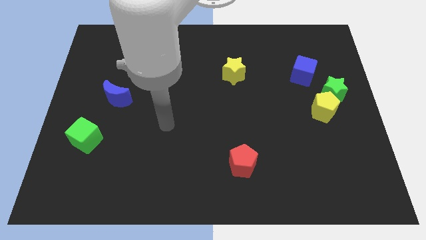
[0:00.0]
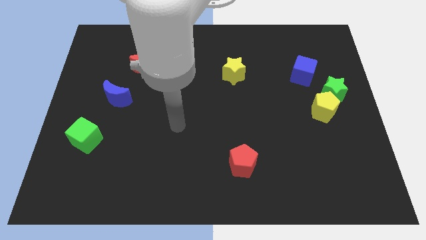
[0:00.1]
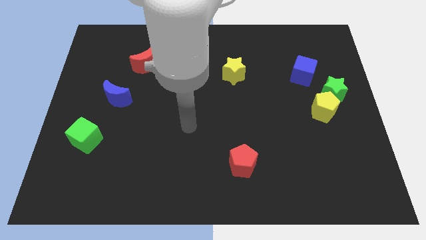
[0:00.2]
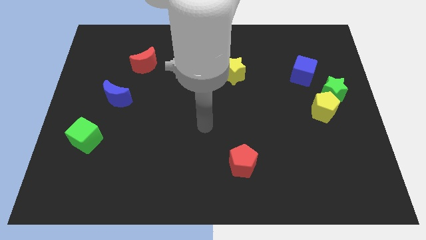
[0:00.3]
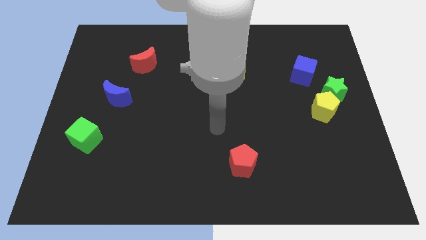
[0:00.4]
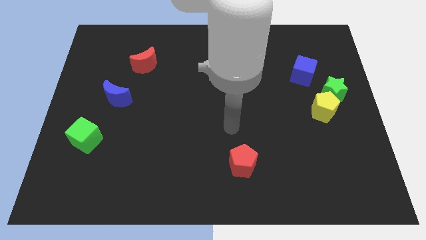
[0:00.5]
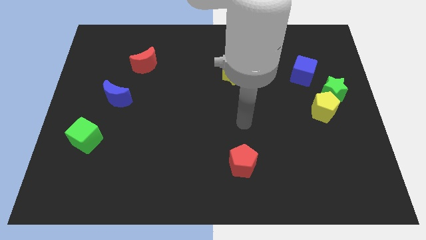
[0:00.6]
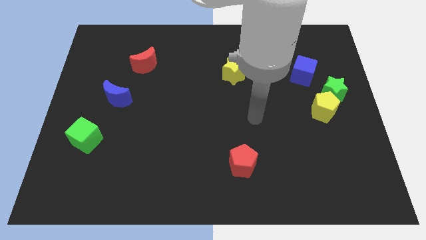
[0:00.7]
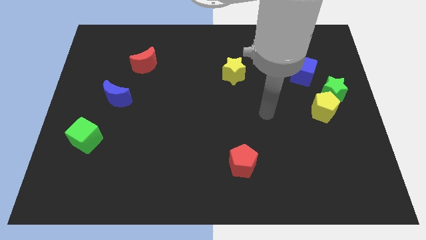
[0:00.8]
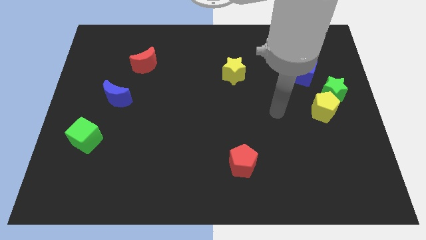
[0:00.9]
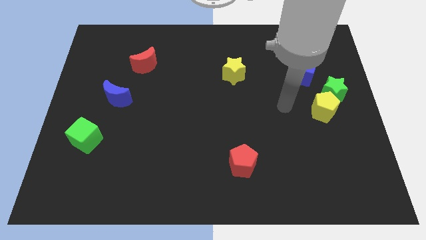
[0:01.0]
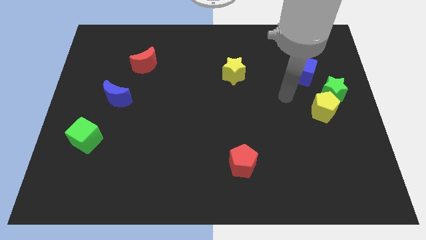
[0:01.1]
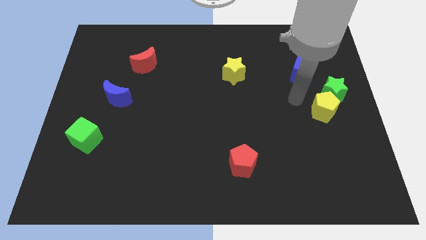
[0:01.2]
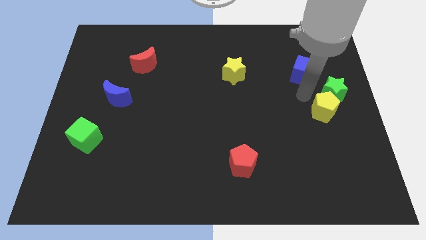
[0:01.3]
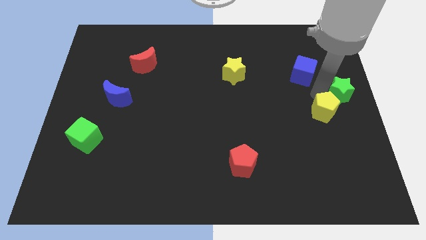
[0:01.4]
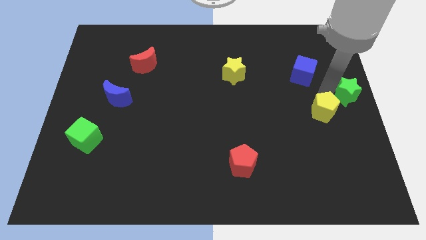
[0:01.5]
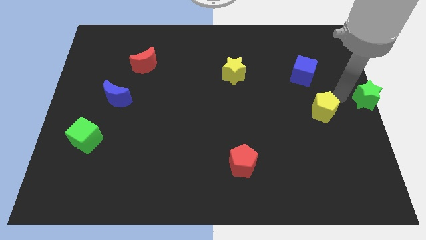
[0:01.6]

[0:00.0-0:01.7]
pull the yellow pentagon apart from the green star

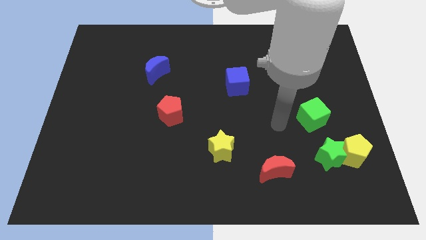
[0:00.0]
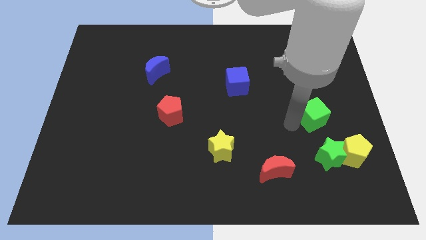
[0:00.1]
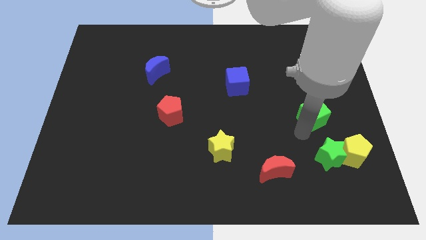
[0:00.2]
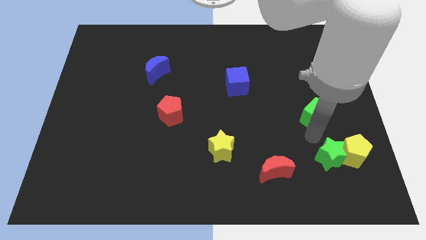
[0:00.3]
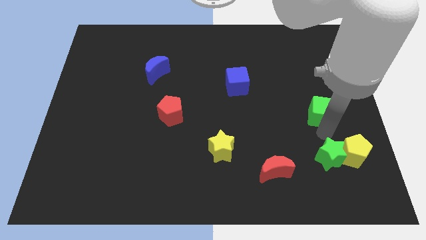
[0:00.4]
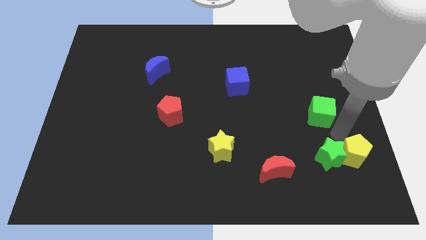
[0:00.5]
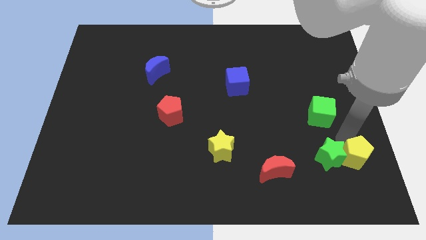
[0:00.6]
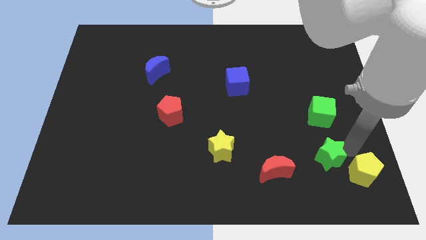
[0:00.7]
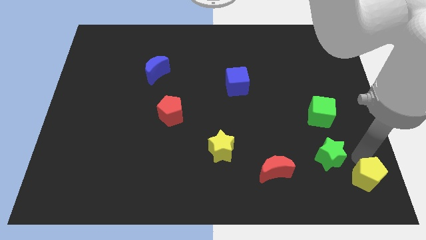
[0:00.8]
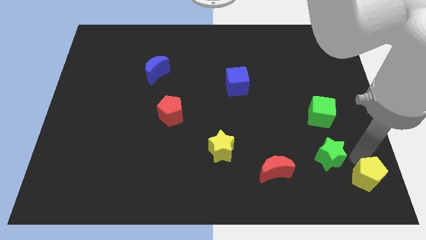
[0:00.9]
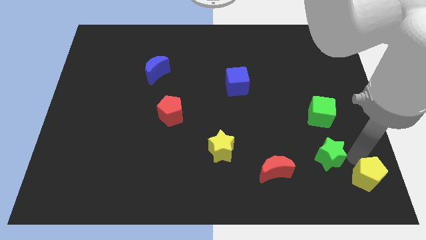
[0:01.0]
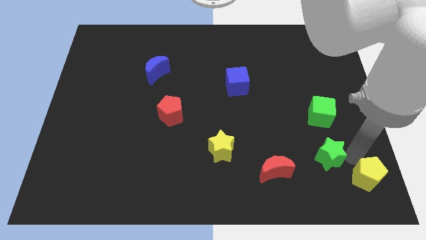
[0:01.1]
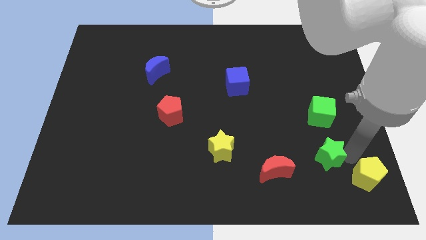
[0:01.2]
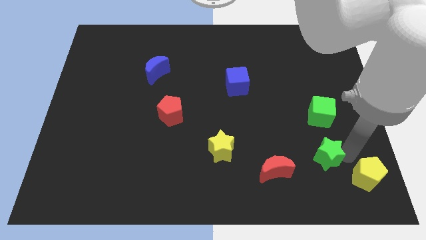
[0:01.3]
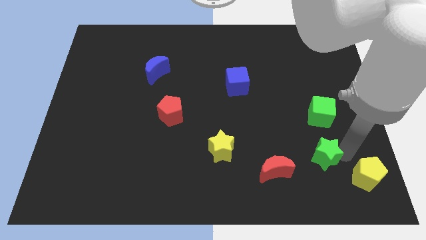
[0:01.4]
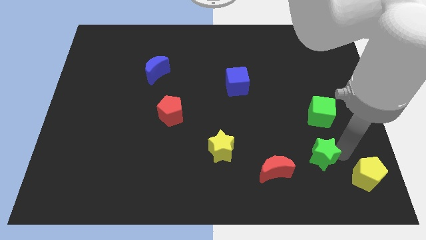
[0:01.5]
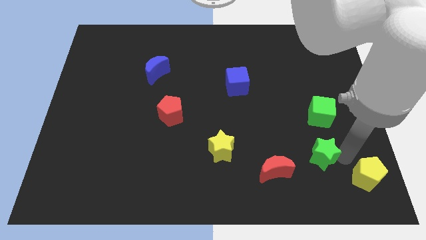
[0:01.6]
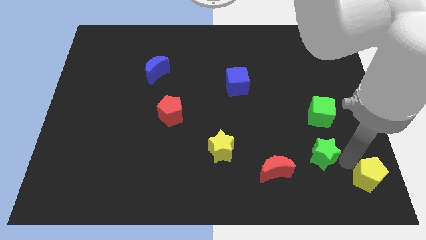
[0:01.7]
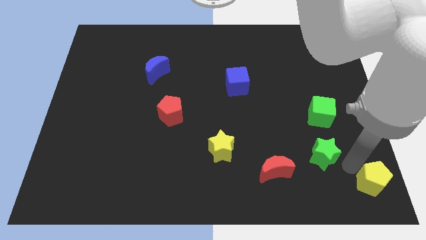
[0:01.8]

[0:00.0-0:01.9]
pull the green star apart from the yellow pentagon

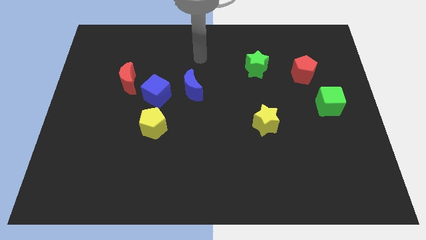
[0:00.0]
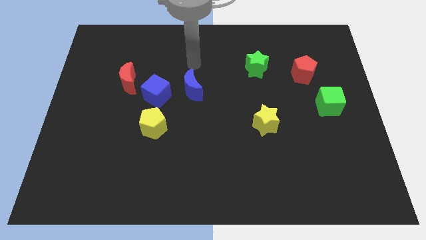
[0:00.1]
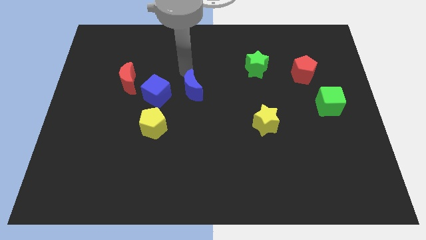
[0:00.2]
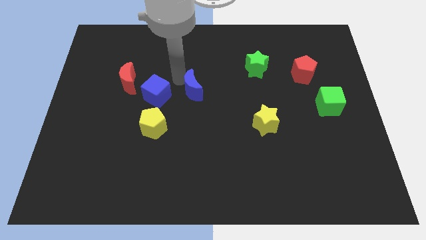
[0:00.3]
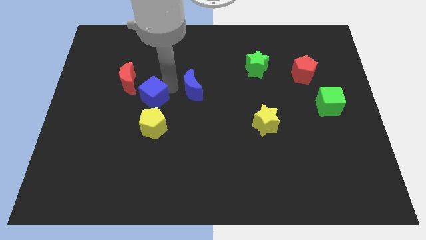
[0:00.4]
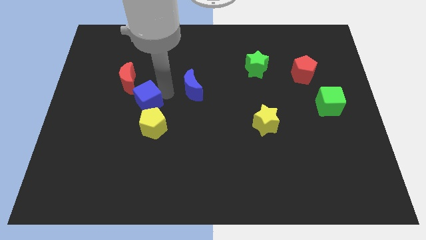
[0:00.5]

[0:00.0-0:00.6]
move the blue moon away from the blue cube

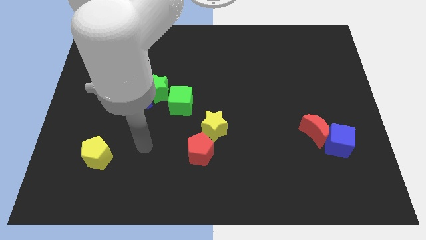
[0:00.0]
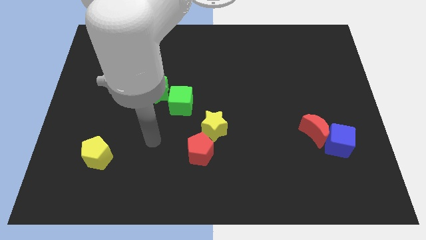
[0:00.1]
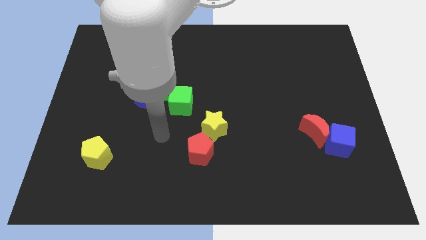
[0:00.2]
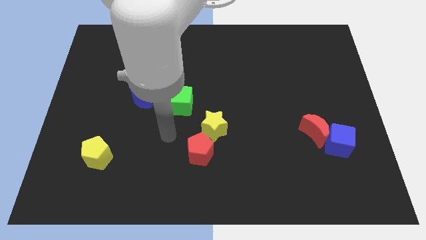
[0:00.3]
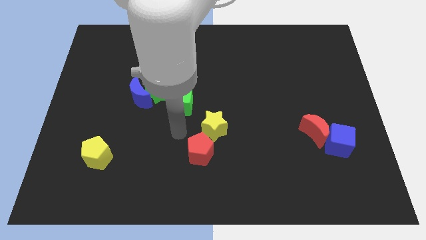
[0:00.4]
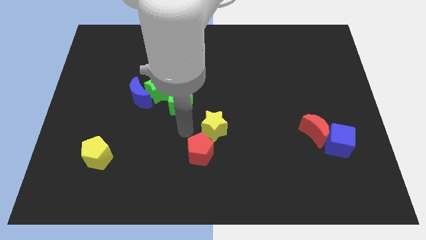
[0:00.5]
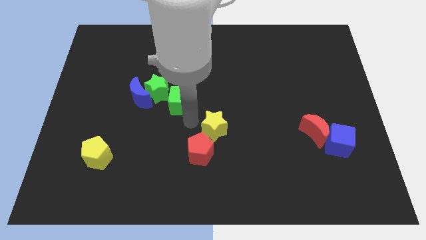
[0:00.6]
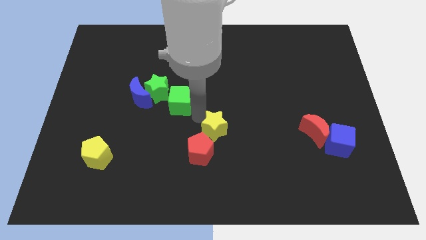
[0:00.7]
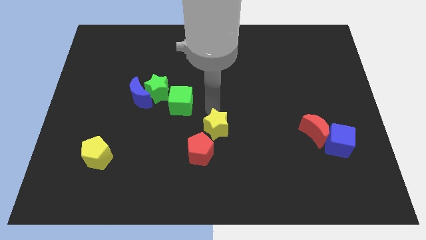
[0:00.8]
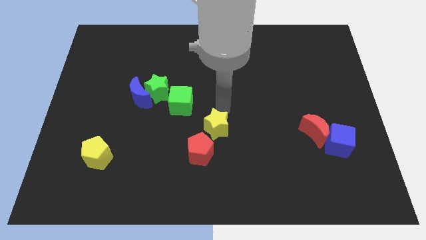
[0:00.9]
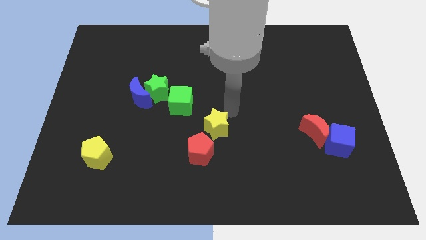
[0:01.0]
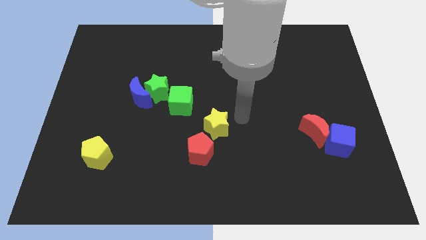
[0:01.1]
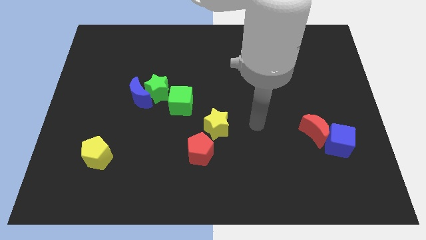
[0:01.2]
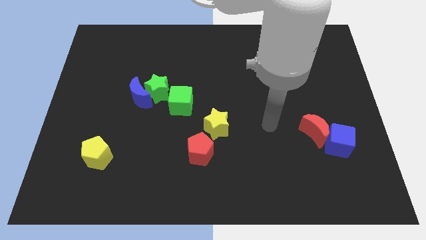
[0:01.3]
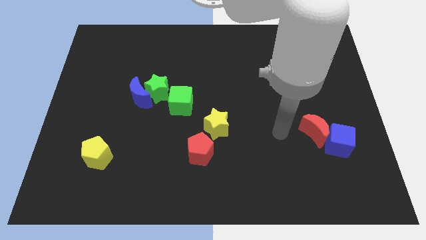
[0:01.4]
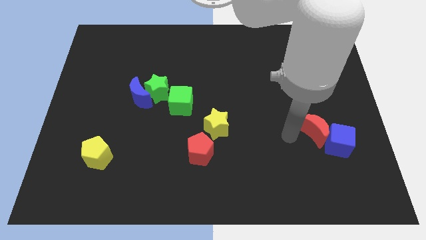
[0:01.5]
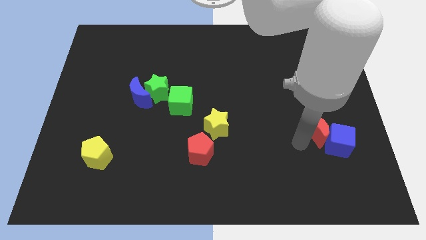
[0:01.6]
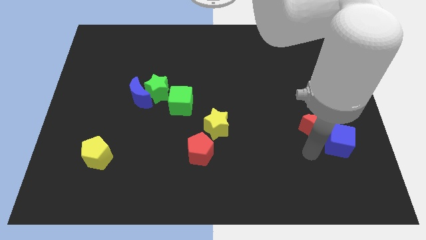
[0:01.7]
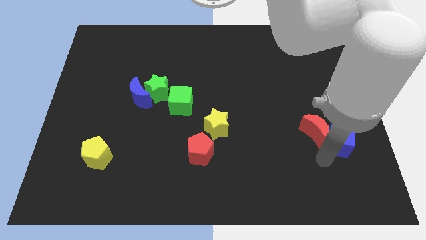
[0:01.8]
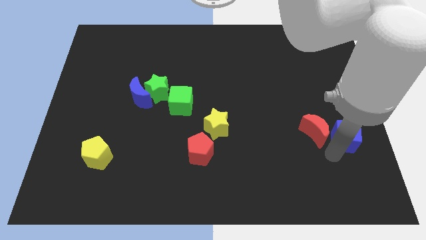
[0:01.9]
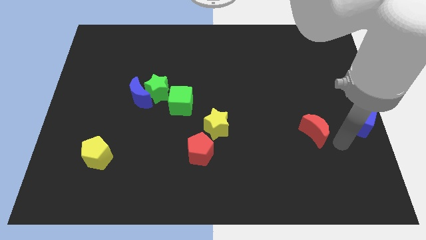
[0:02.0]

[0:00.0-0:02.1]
separate the red moon from the blue cube

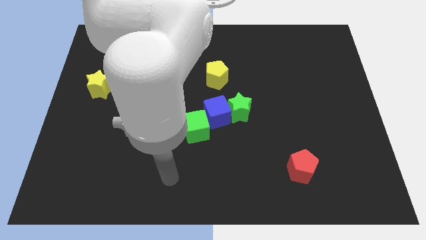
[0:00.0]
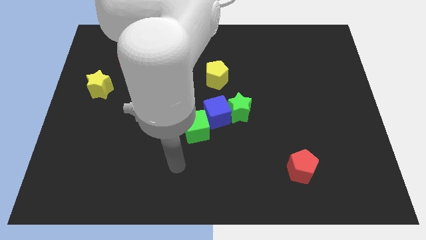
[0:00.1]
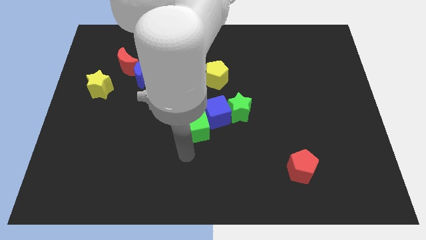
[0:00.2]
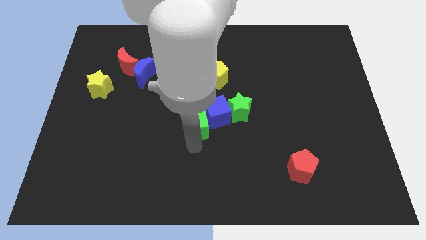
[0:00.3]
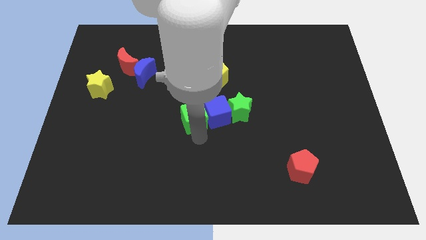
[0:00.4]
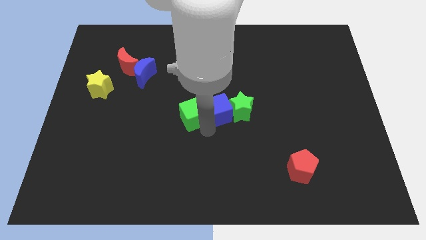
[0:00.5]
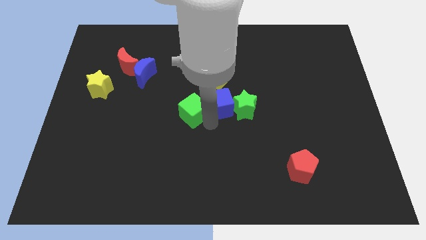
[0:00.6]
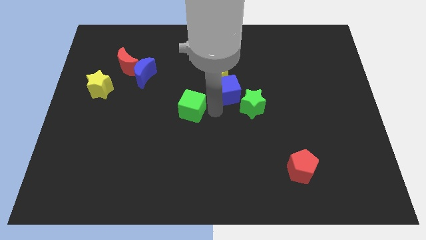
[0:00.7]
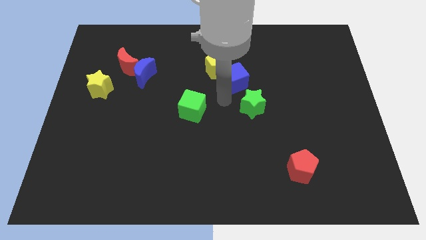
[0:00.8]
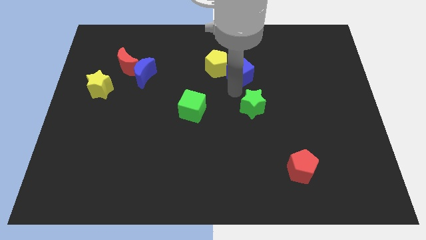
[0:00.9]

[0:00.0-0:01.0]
pull the green star apart from the blue cube

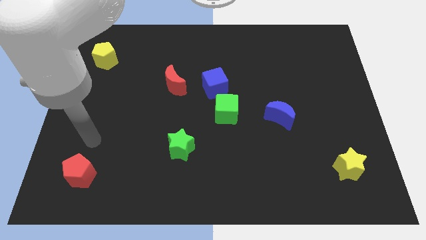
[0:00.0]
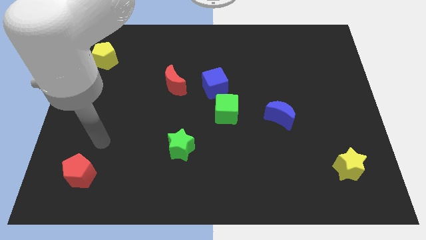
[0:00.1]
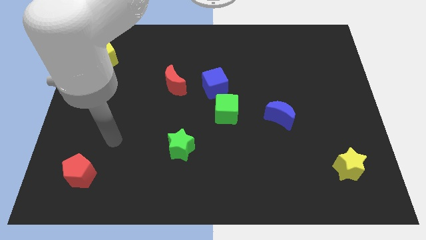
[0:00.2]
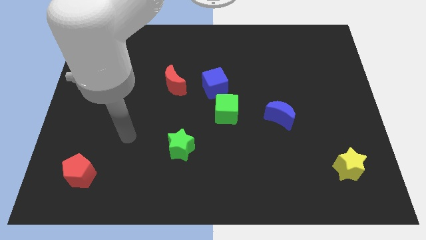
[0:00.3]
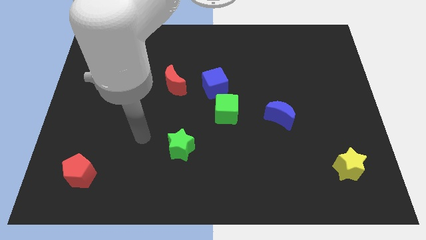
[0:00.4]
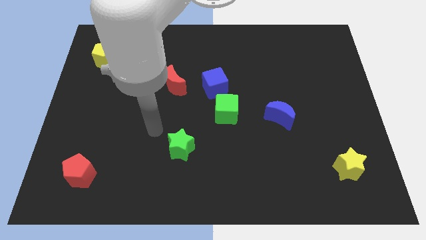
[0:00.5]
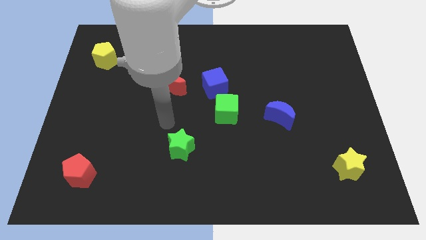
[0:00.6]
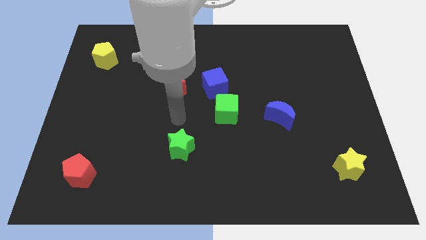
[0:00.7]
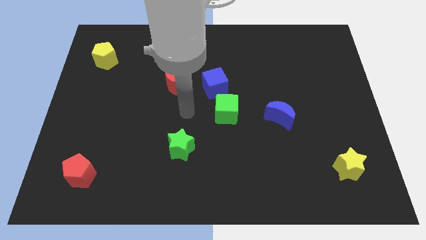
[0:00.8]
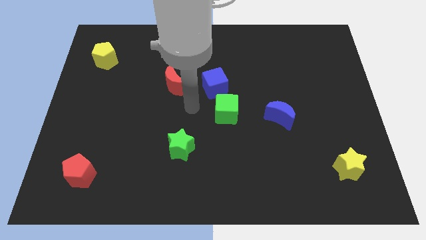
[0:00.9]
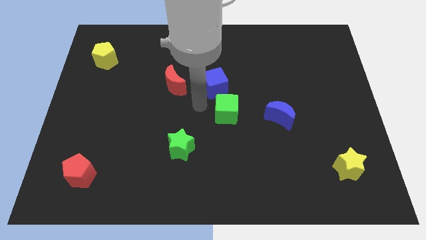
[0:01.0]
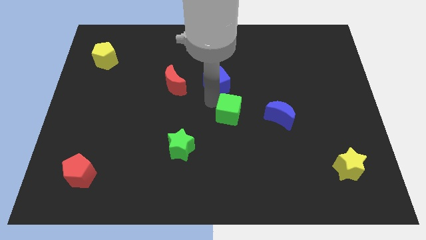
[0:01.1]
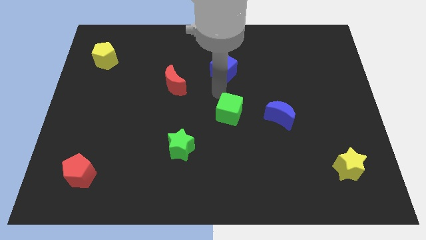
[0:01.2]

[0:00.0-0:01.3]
separate the green cube from the blue cube

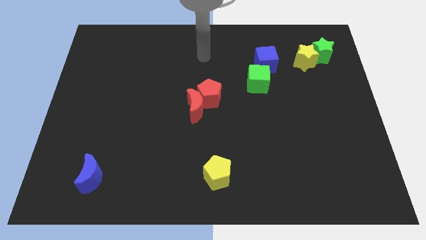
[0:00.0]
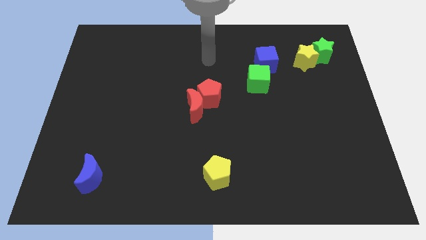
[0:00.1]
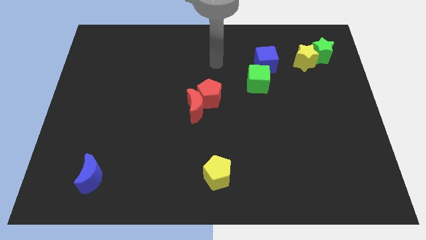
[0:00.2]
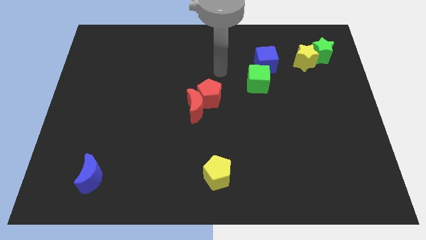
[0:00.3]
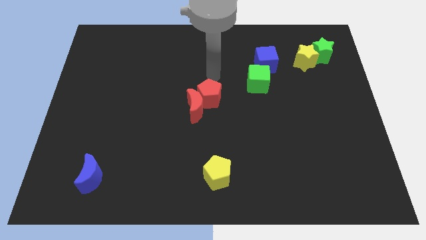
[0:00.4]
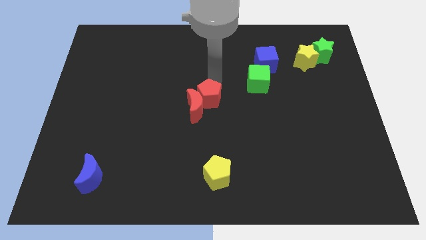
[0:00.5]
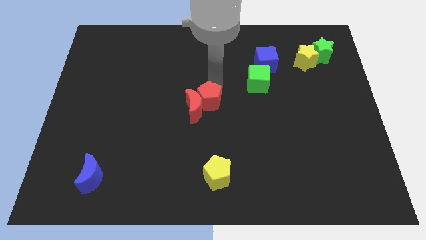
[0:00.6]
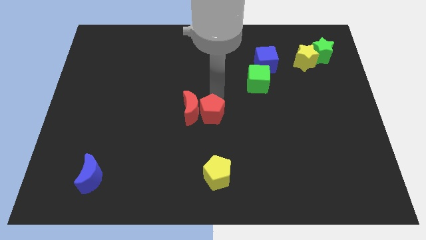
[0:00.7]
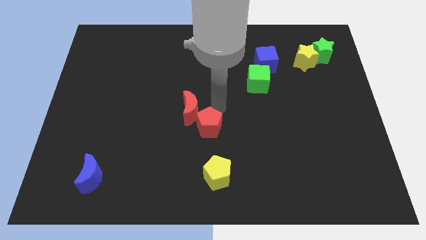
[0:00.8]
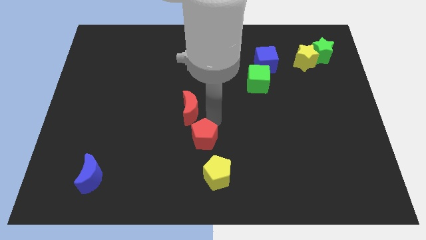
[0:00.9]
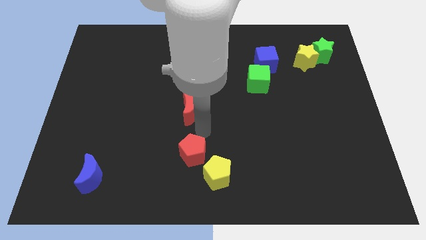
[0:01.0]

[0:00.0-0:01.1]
separate the red moon from the red pentagon
